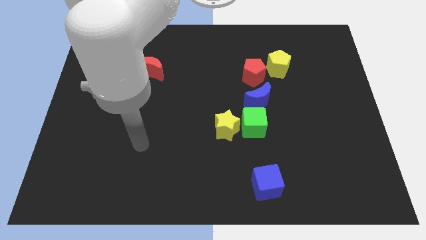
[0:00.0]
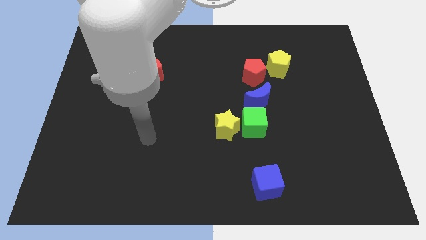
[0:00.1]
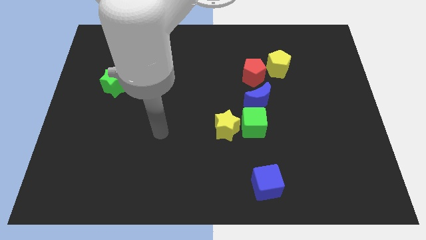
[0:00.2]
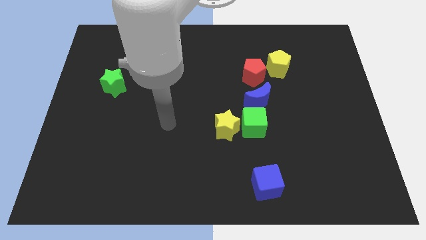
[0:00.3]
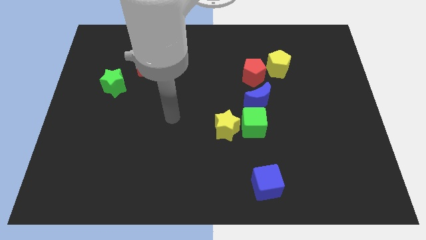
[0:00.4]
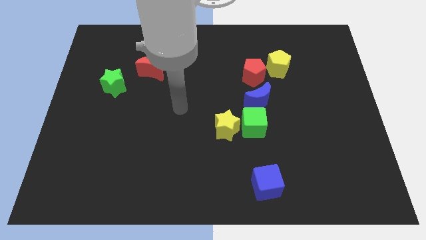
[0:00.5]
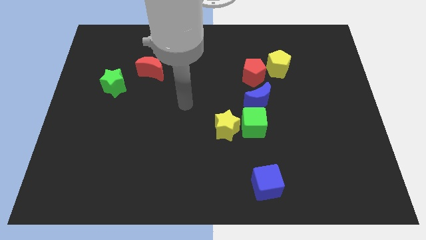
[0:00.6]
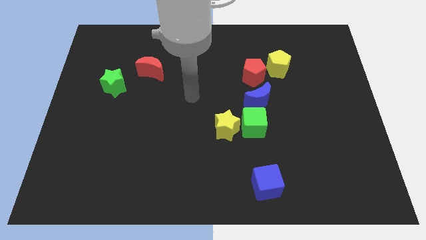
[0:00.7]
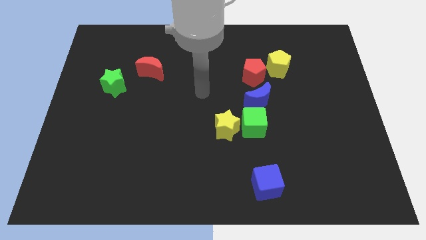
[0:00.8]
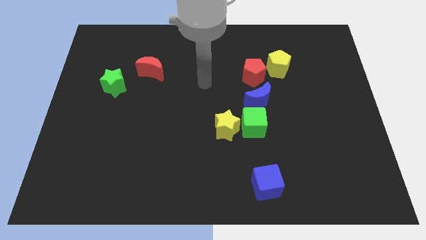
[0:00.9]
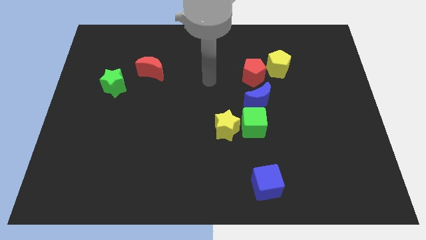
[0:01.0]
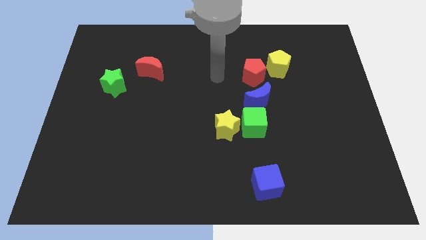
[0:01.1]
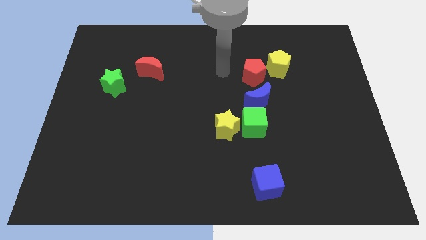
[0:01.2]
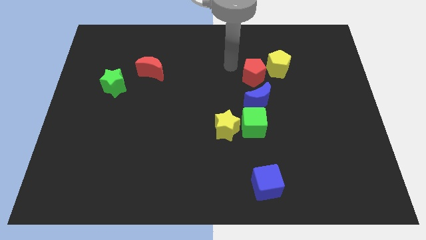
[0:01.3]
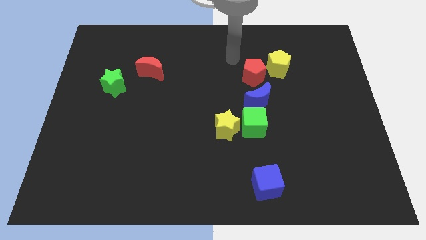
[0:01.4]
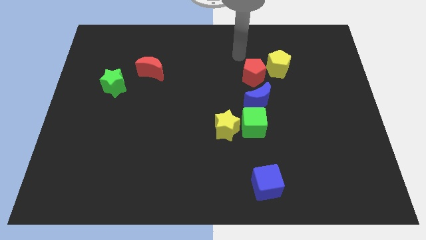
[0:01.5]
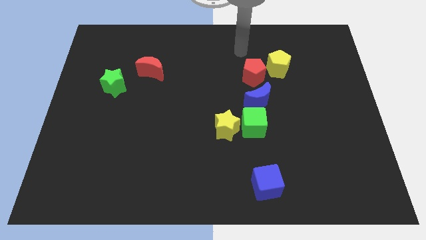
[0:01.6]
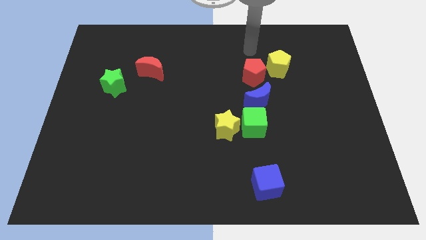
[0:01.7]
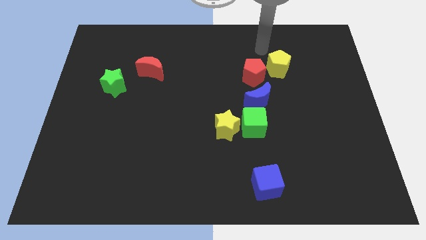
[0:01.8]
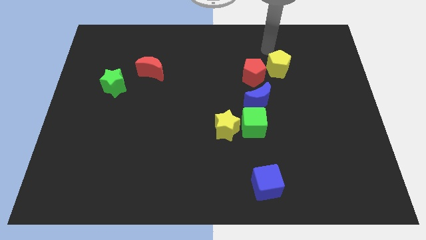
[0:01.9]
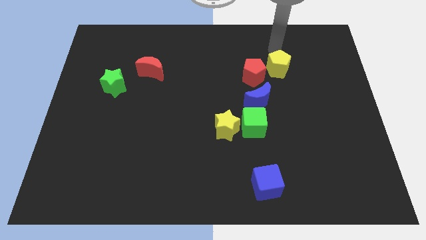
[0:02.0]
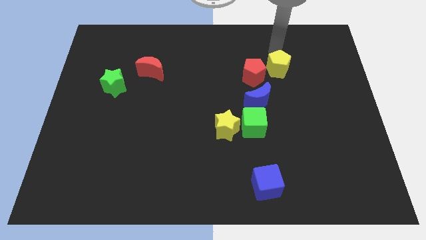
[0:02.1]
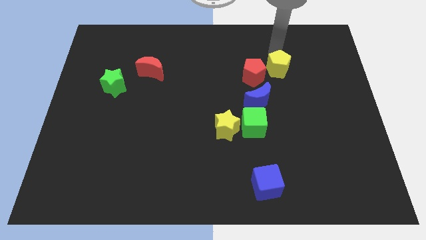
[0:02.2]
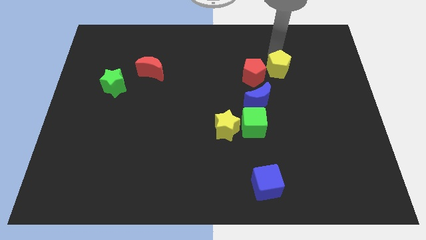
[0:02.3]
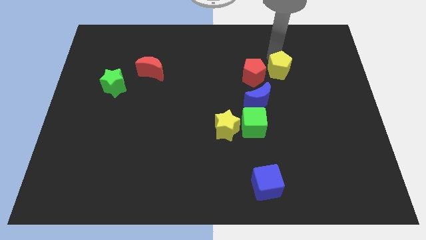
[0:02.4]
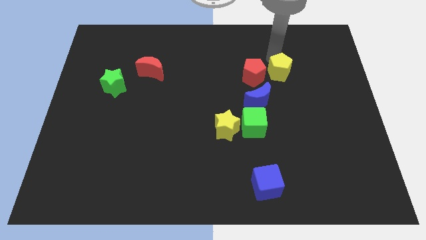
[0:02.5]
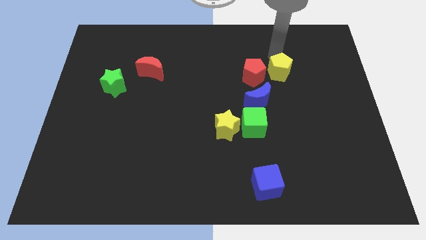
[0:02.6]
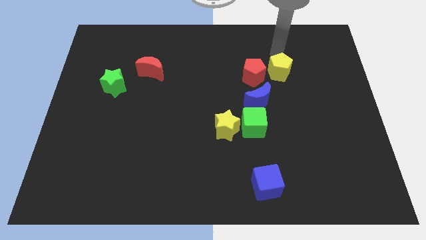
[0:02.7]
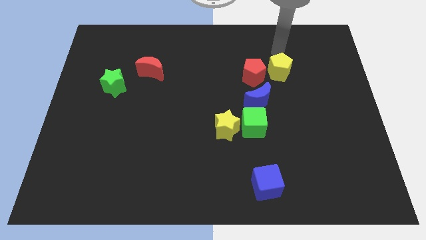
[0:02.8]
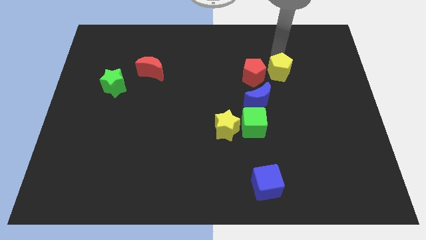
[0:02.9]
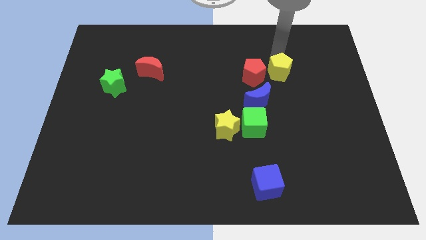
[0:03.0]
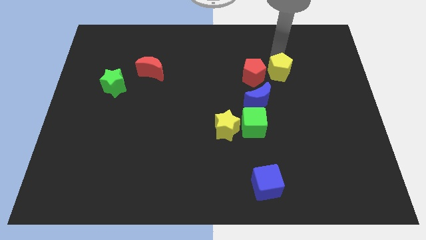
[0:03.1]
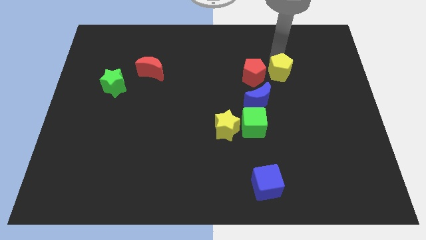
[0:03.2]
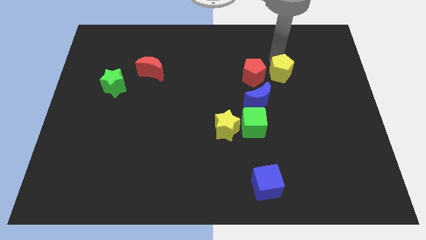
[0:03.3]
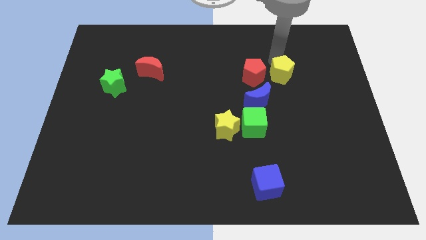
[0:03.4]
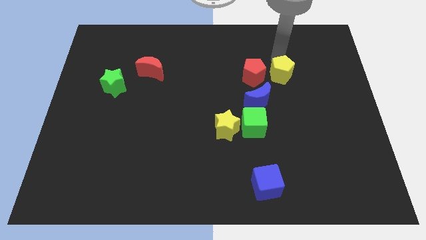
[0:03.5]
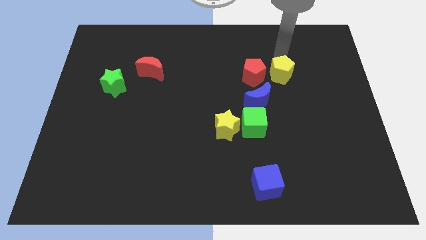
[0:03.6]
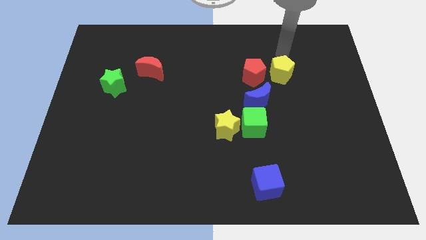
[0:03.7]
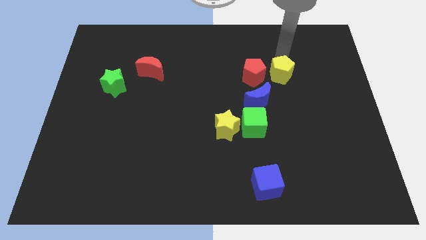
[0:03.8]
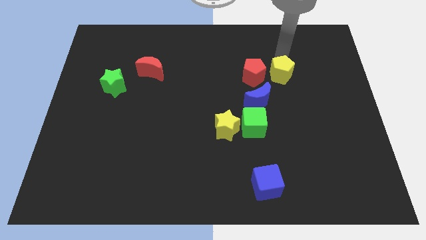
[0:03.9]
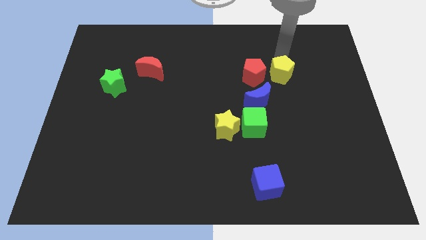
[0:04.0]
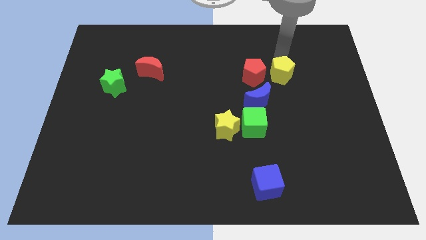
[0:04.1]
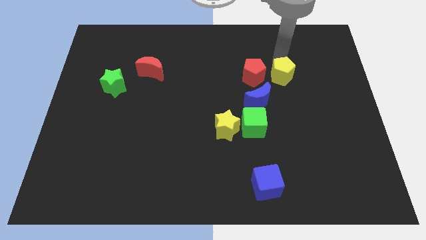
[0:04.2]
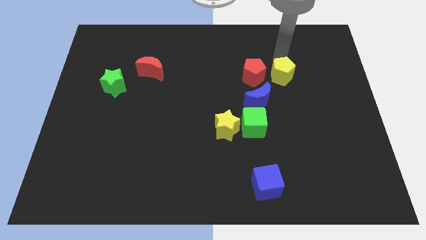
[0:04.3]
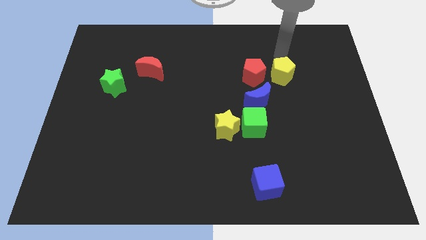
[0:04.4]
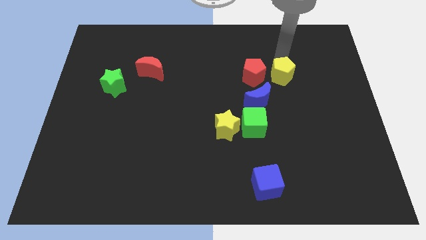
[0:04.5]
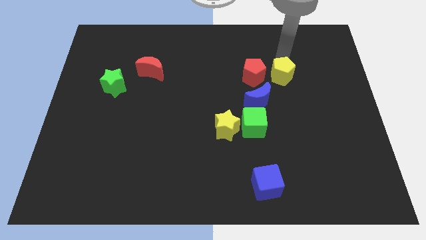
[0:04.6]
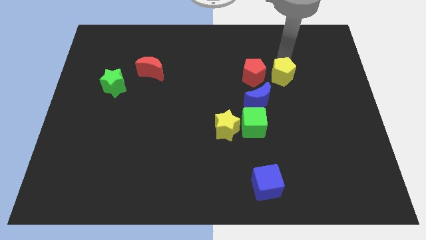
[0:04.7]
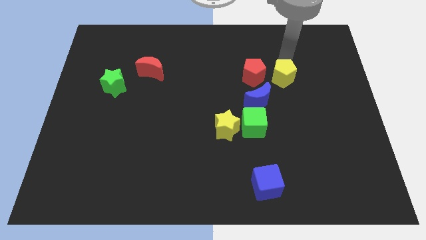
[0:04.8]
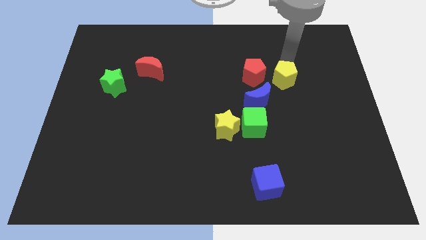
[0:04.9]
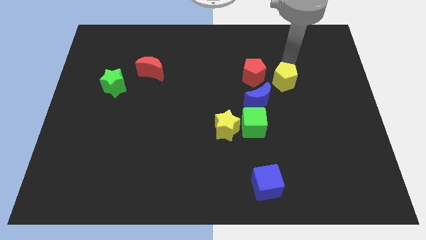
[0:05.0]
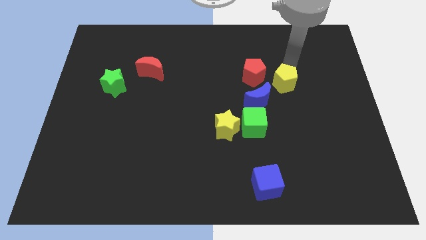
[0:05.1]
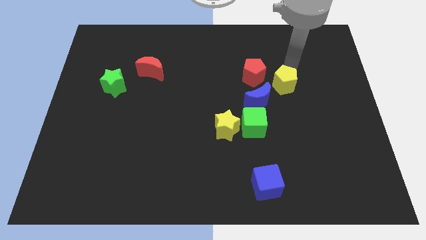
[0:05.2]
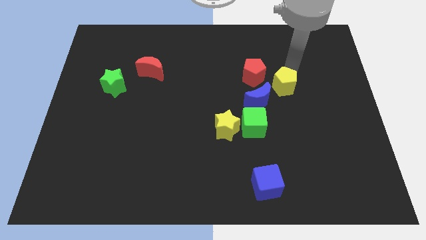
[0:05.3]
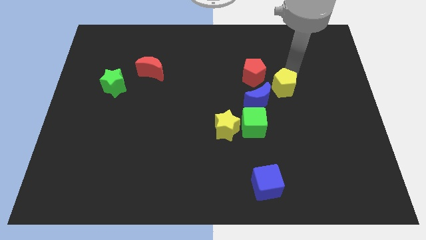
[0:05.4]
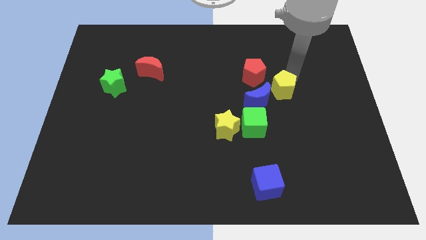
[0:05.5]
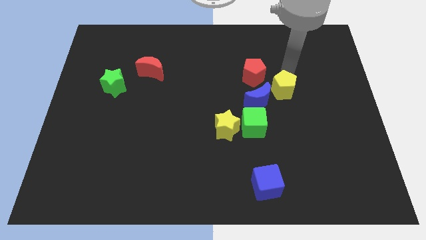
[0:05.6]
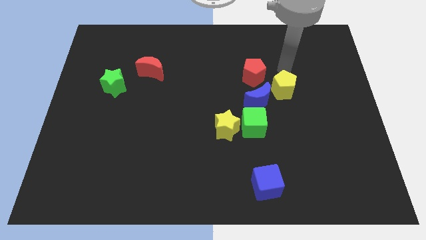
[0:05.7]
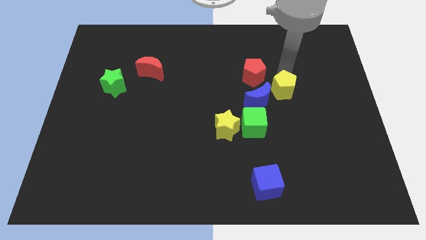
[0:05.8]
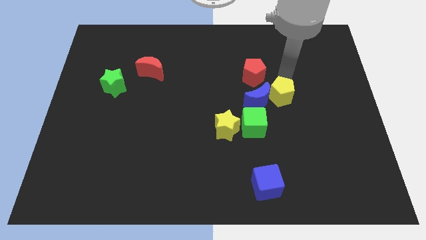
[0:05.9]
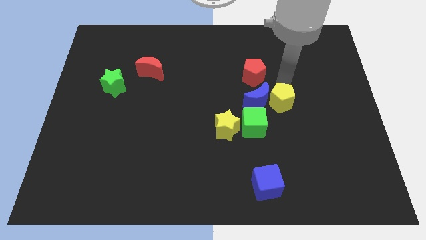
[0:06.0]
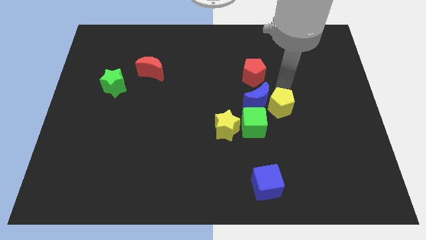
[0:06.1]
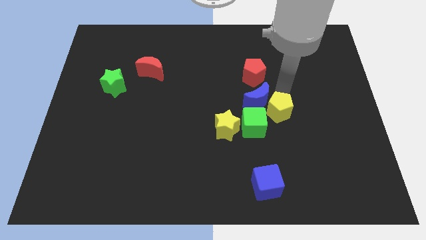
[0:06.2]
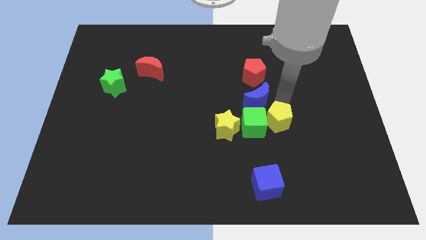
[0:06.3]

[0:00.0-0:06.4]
put the yellow pentagon to the bottom side of the blue moon
